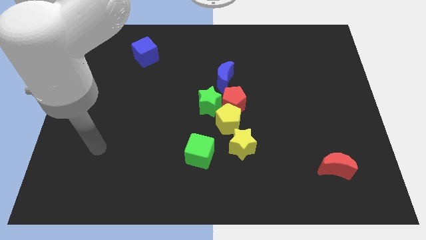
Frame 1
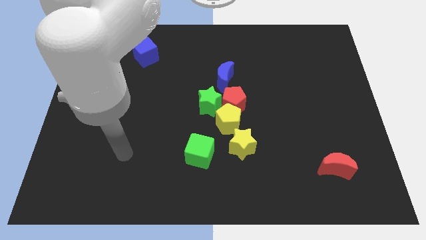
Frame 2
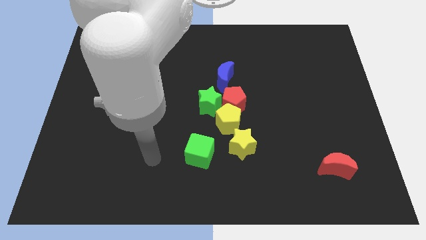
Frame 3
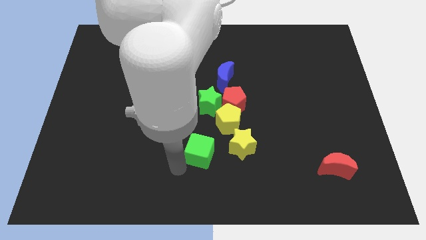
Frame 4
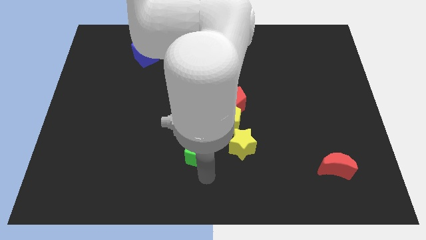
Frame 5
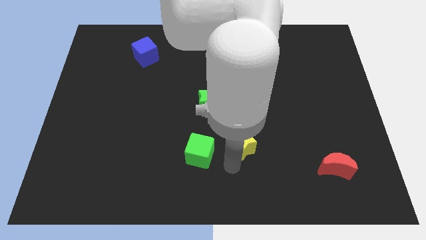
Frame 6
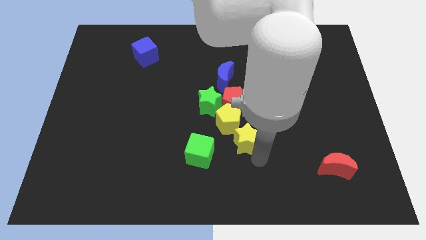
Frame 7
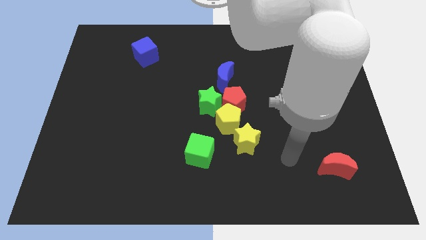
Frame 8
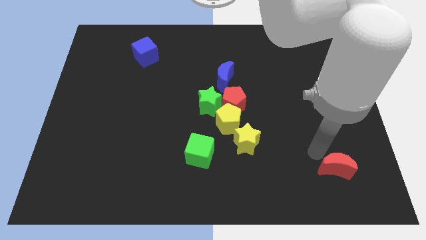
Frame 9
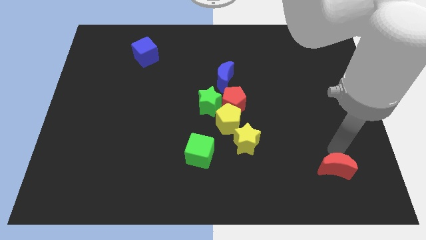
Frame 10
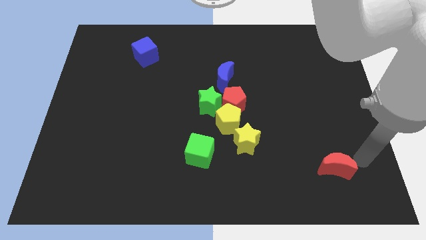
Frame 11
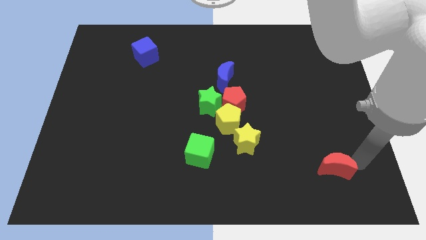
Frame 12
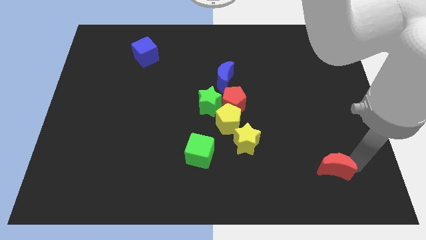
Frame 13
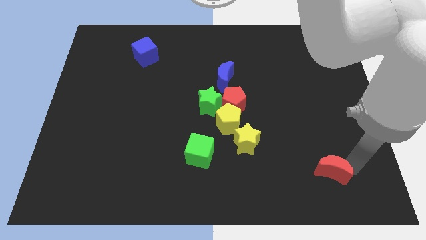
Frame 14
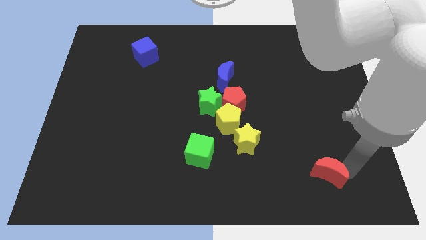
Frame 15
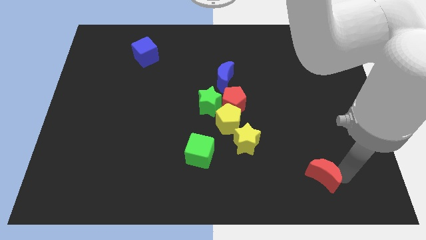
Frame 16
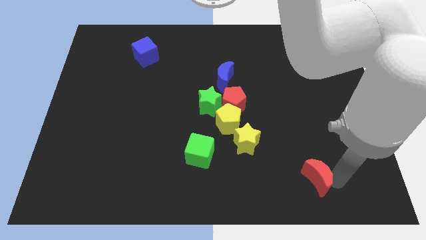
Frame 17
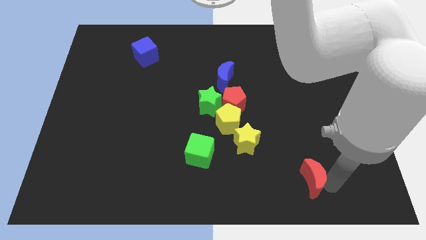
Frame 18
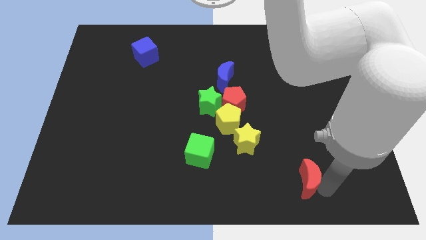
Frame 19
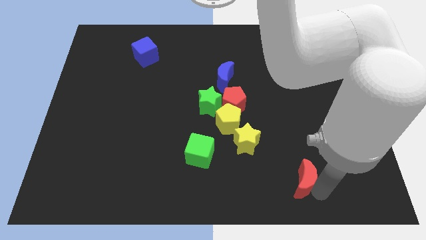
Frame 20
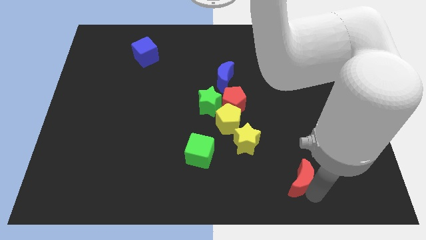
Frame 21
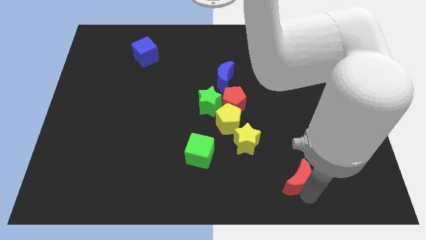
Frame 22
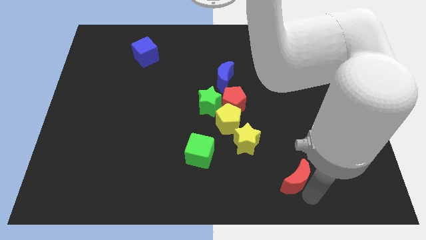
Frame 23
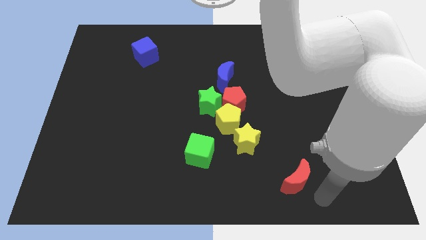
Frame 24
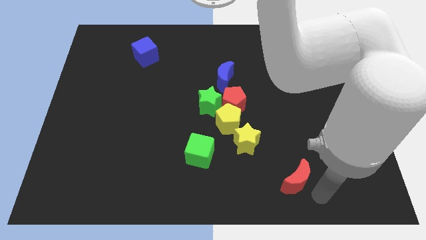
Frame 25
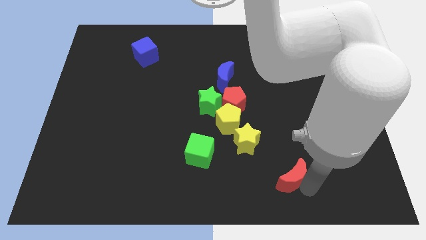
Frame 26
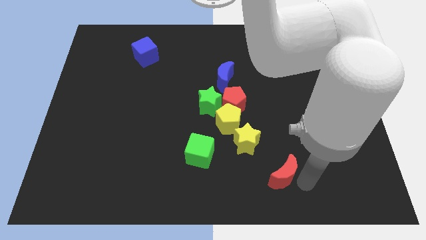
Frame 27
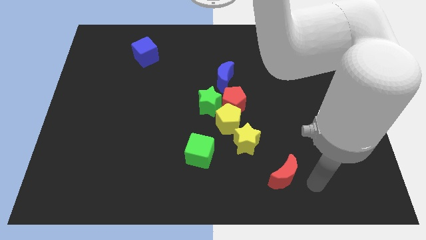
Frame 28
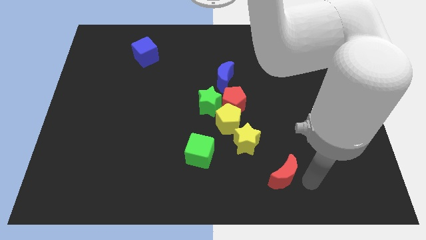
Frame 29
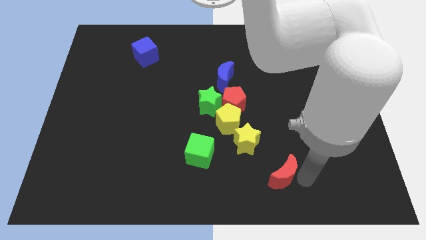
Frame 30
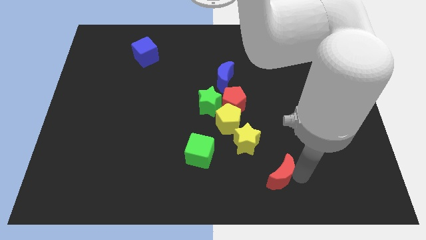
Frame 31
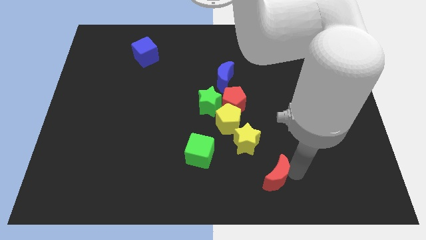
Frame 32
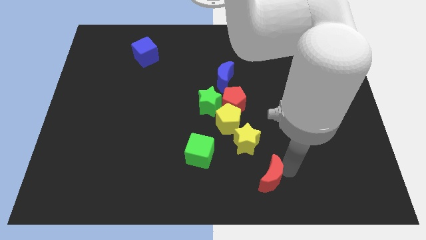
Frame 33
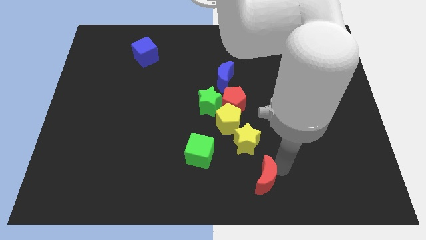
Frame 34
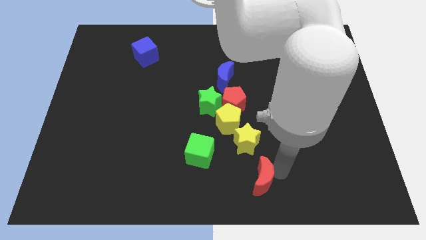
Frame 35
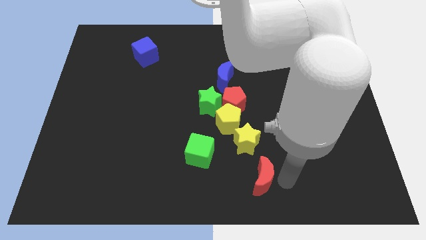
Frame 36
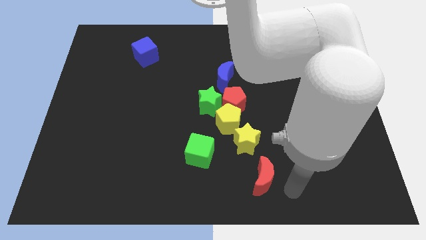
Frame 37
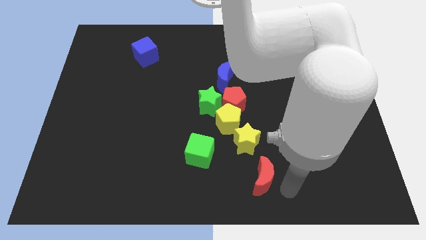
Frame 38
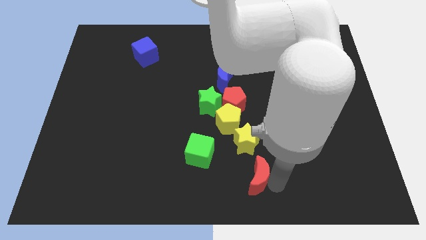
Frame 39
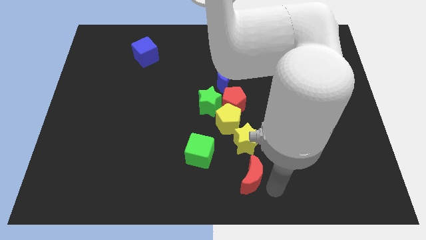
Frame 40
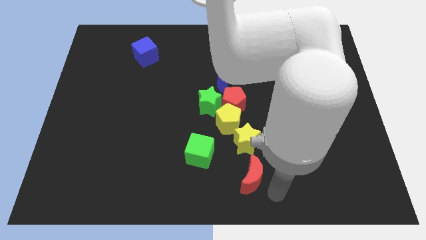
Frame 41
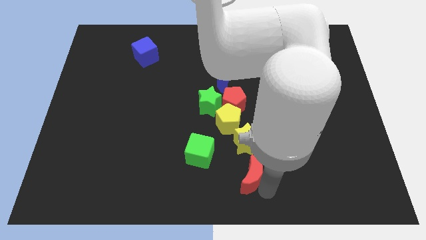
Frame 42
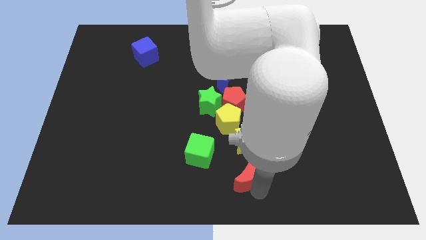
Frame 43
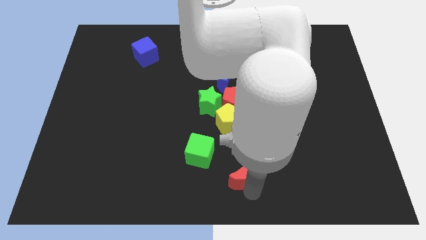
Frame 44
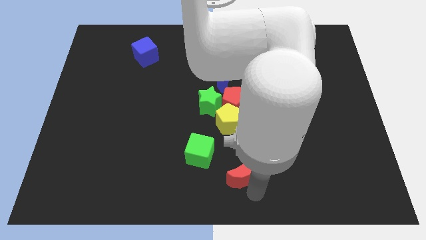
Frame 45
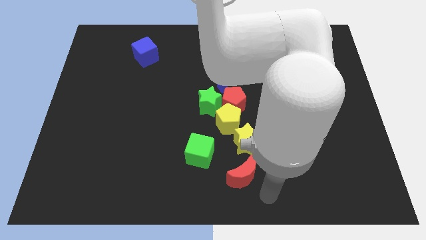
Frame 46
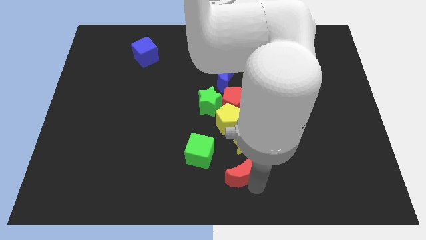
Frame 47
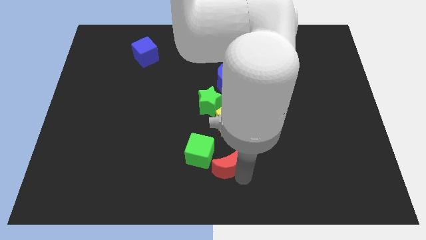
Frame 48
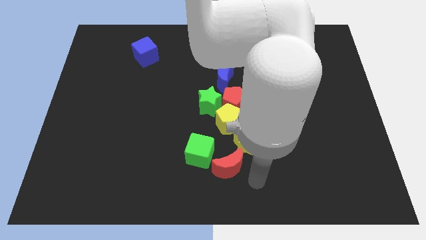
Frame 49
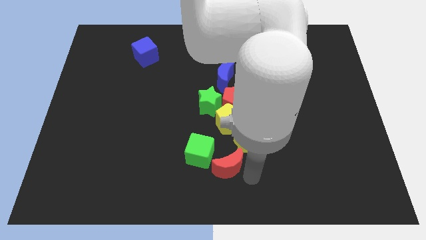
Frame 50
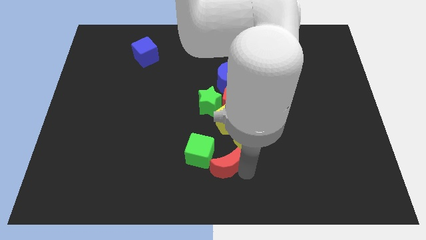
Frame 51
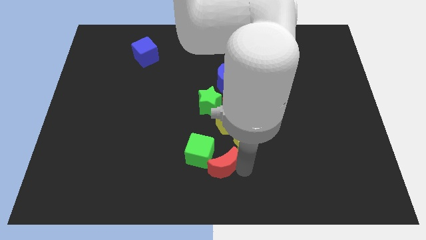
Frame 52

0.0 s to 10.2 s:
move the red moon to the green cube

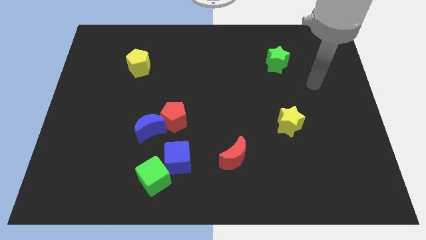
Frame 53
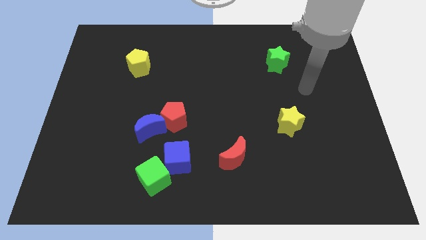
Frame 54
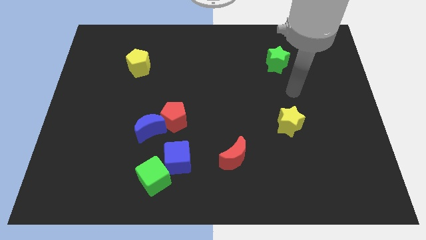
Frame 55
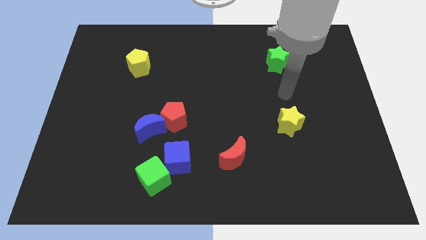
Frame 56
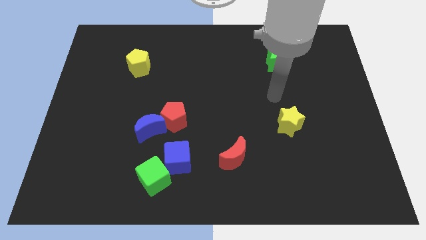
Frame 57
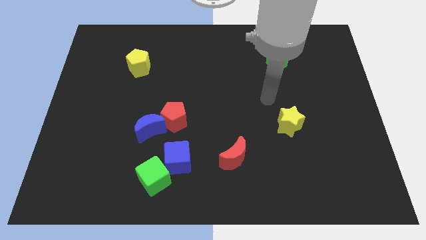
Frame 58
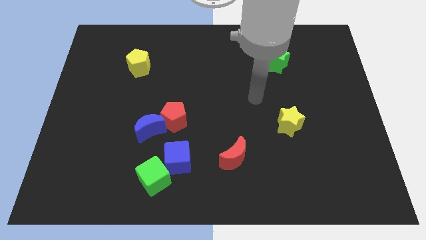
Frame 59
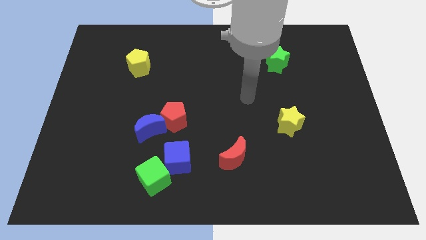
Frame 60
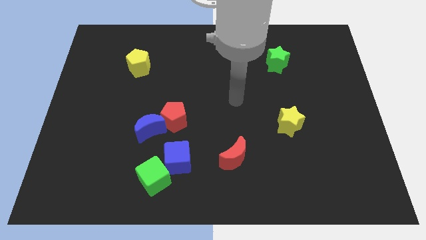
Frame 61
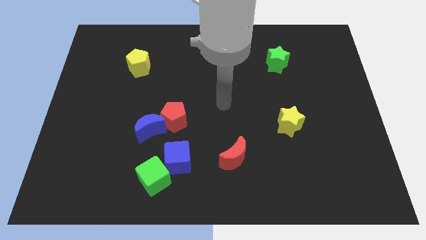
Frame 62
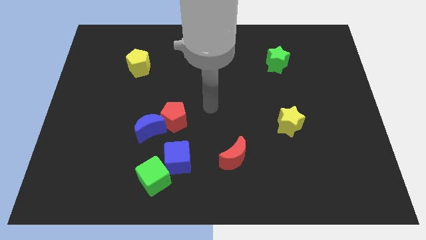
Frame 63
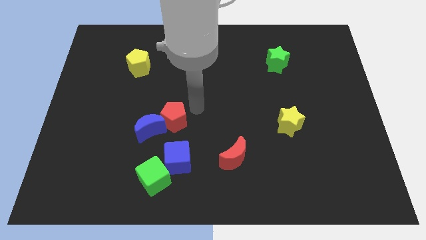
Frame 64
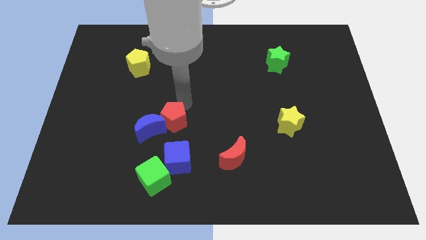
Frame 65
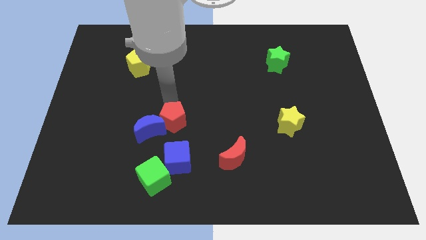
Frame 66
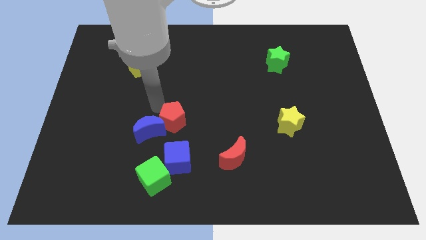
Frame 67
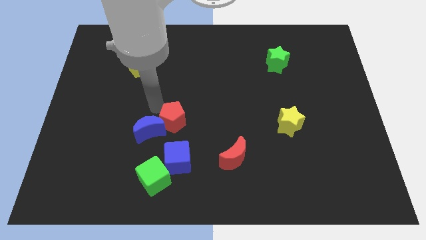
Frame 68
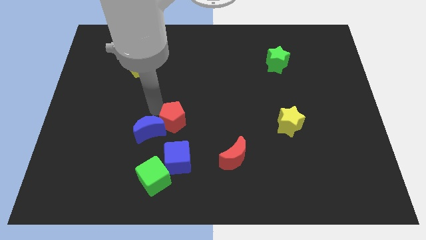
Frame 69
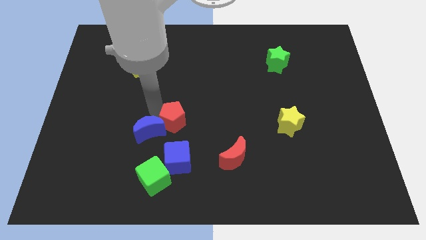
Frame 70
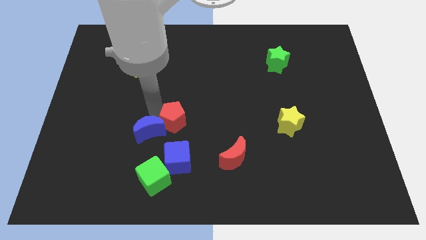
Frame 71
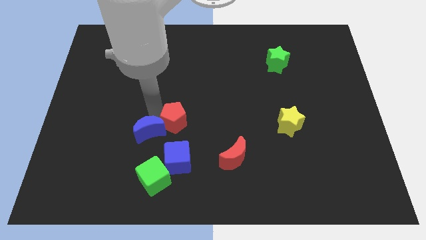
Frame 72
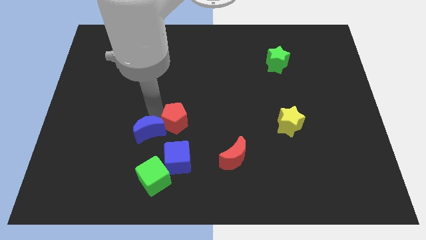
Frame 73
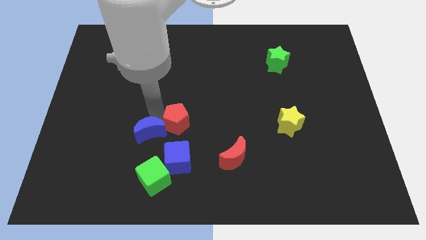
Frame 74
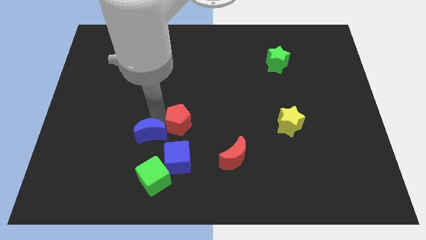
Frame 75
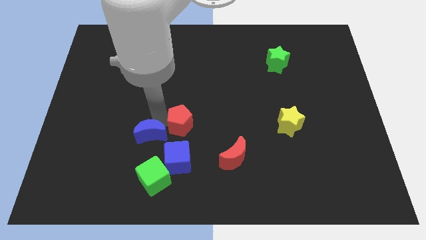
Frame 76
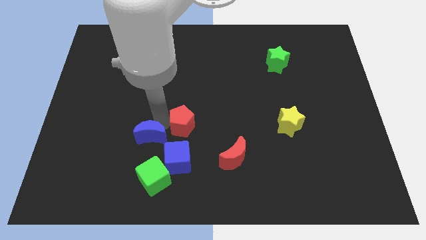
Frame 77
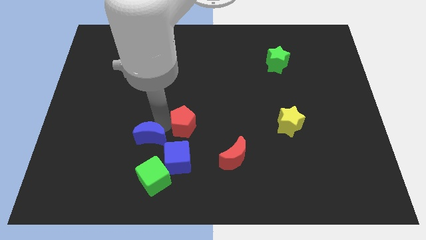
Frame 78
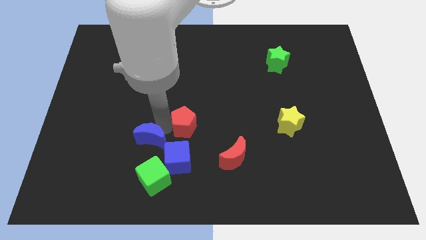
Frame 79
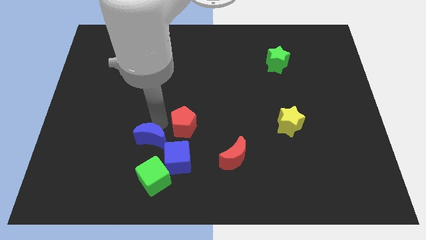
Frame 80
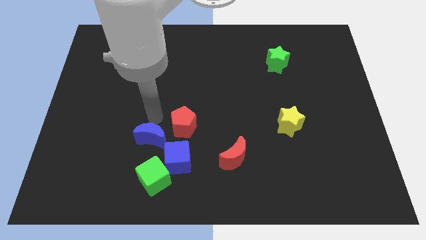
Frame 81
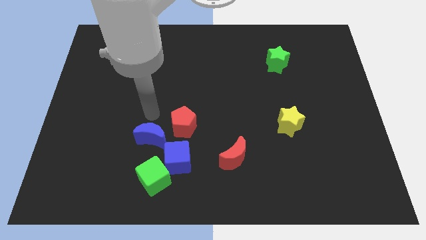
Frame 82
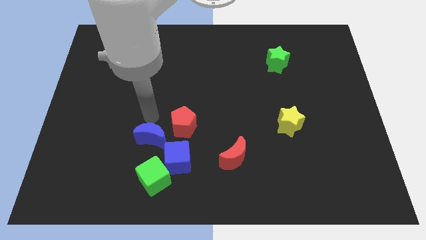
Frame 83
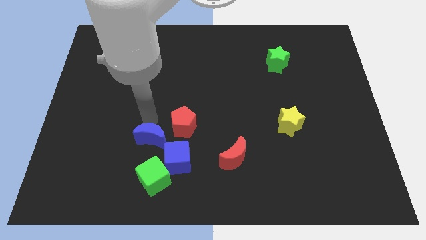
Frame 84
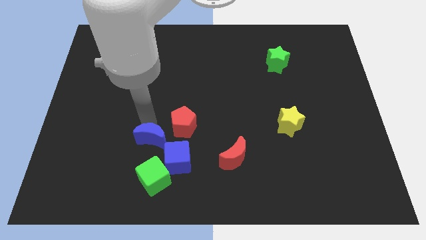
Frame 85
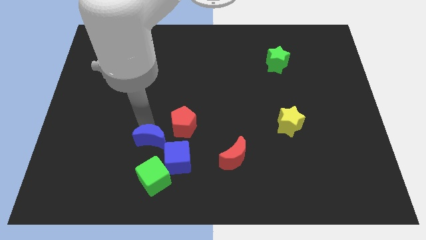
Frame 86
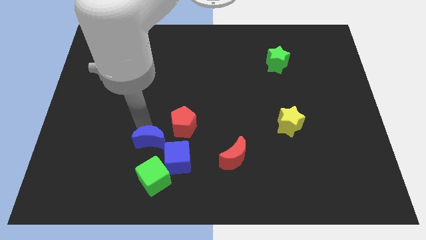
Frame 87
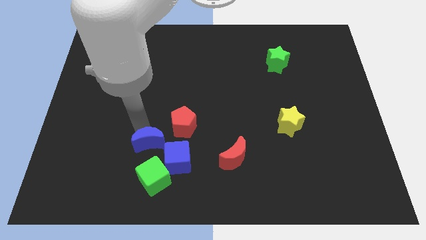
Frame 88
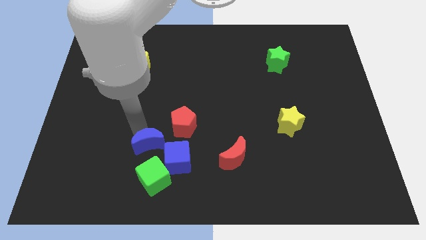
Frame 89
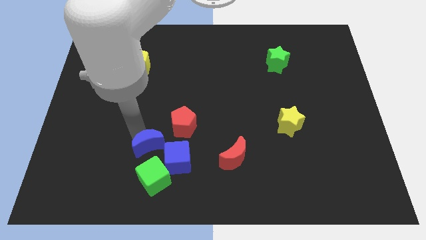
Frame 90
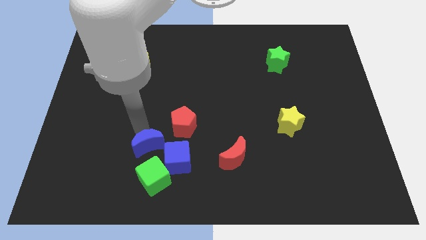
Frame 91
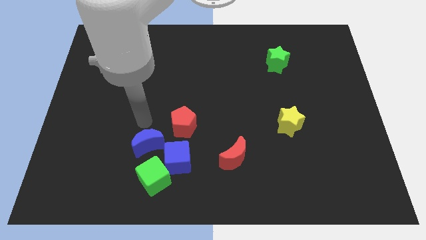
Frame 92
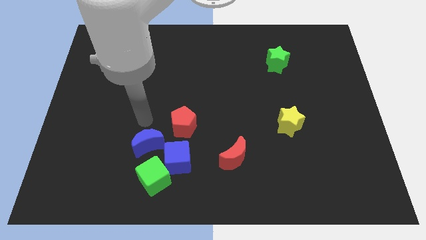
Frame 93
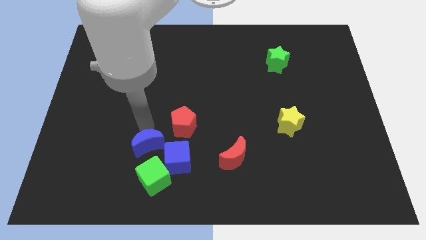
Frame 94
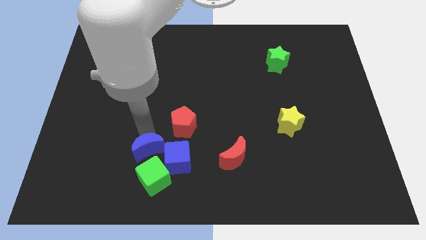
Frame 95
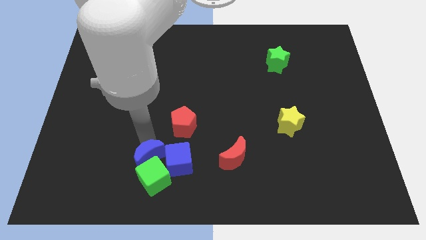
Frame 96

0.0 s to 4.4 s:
slide the blue moon close to the green cube
